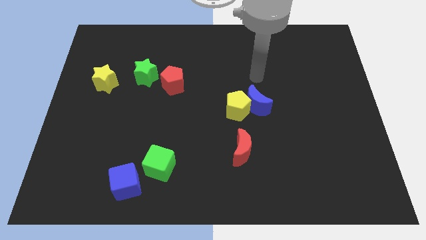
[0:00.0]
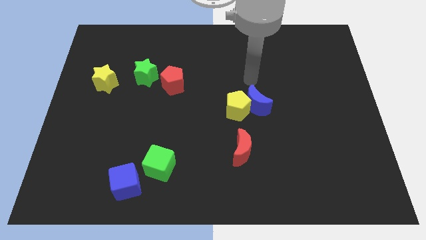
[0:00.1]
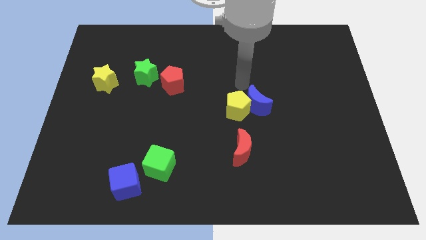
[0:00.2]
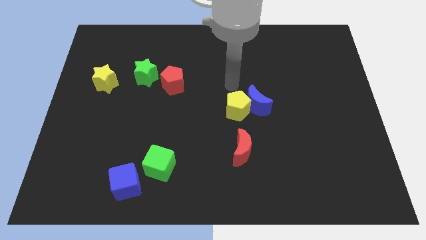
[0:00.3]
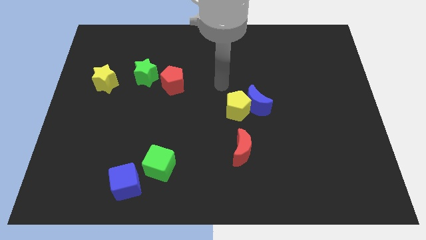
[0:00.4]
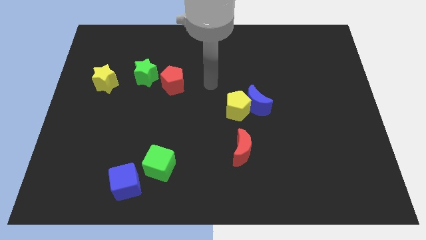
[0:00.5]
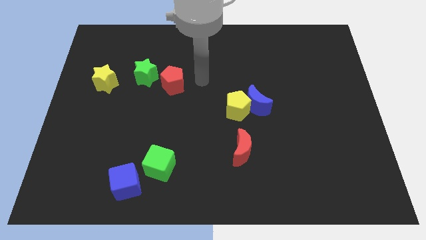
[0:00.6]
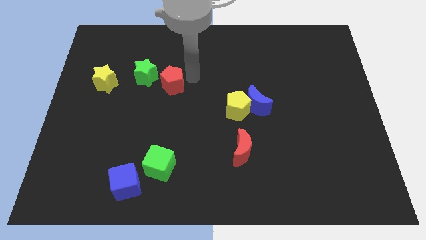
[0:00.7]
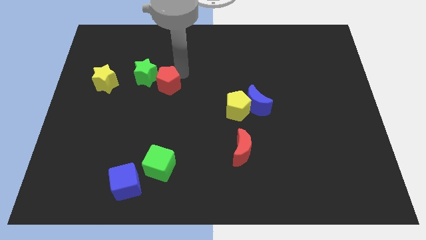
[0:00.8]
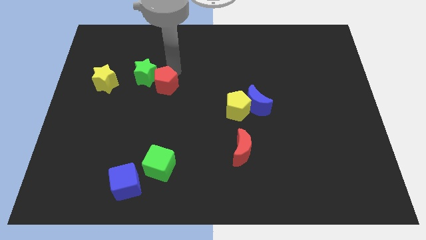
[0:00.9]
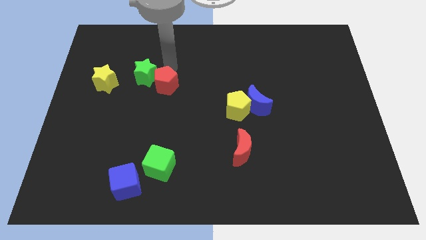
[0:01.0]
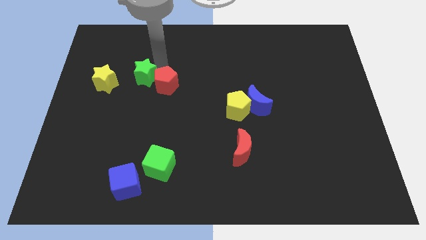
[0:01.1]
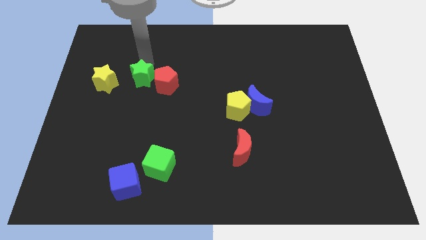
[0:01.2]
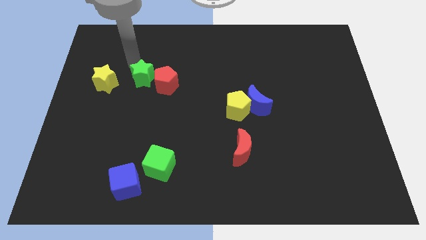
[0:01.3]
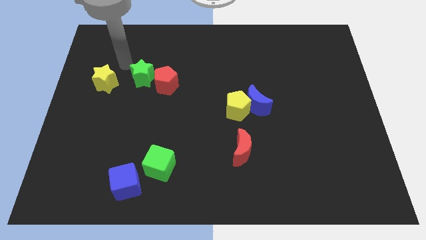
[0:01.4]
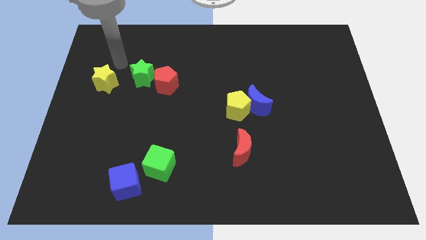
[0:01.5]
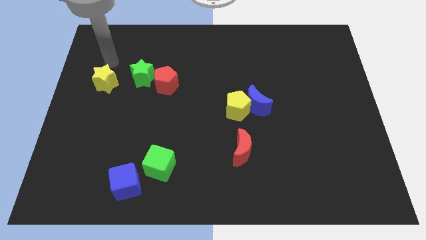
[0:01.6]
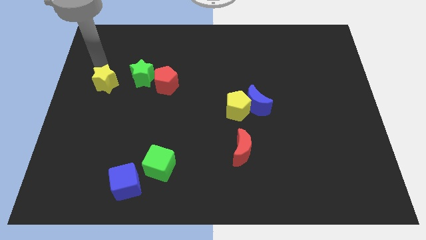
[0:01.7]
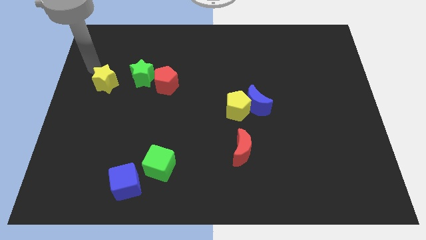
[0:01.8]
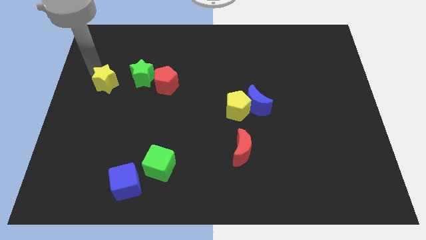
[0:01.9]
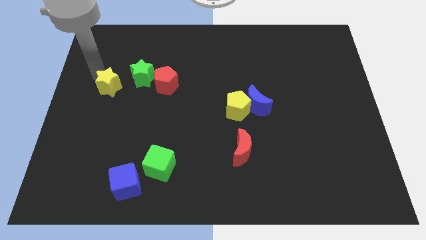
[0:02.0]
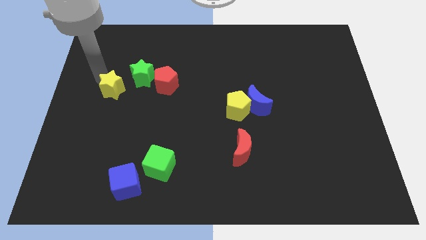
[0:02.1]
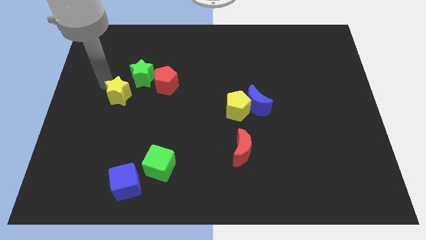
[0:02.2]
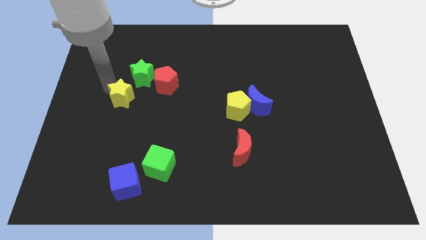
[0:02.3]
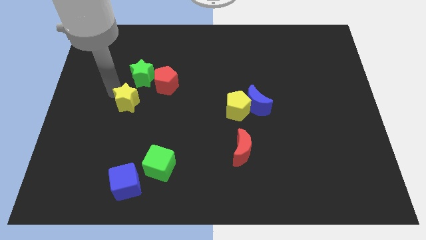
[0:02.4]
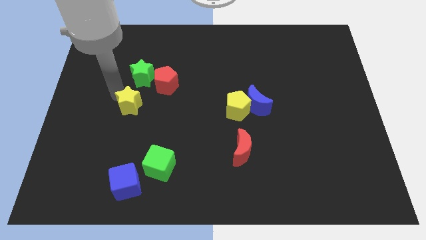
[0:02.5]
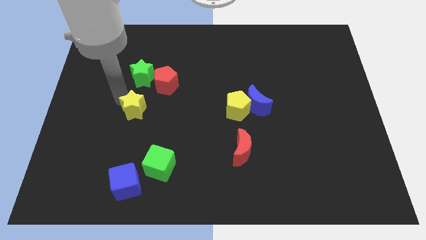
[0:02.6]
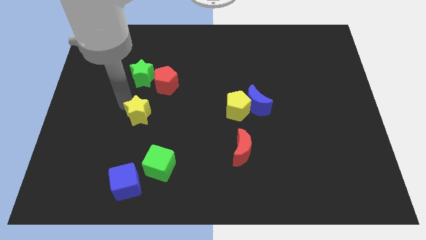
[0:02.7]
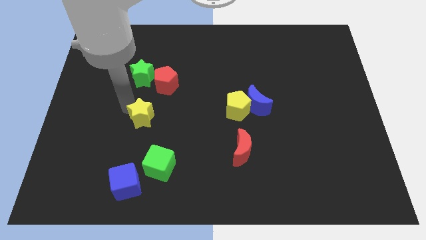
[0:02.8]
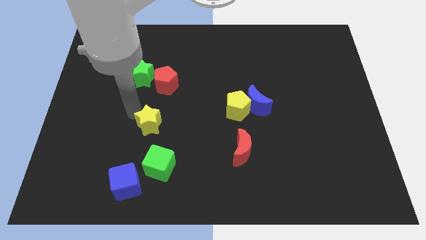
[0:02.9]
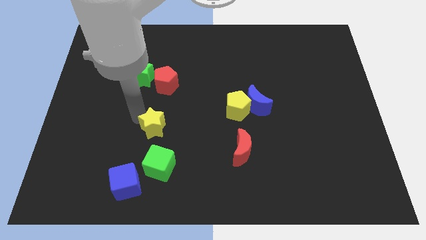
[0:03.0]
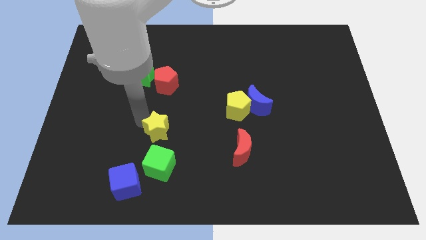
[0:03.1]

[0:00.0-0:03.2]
push the yellow star down and right

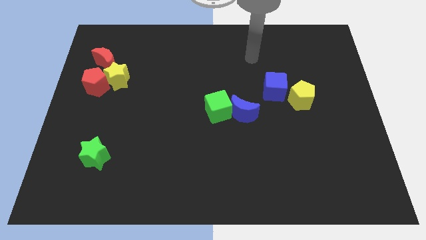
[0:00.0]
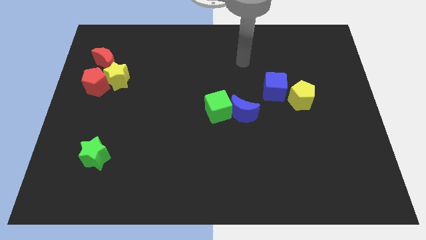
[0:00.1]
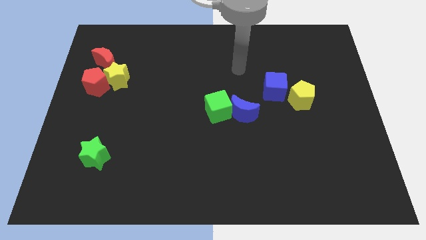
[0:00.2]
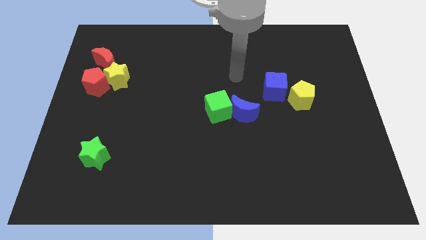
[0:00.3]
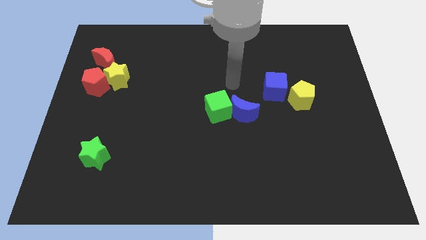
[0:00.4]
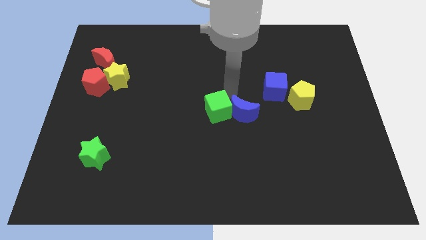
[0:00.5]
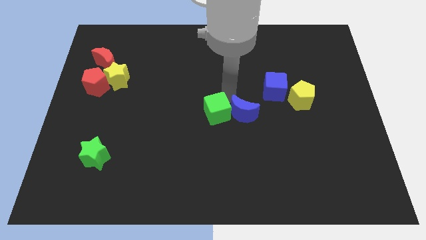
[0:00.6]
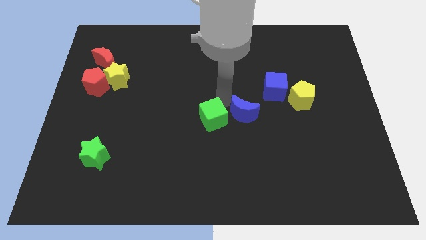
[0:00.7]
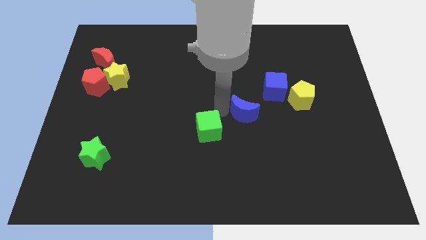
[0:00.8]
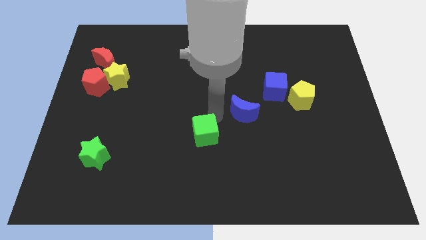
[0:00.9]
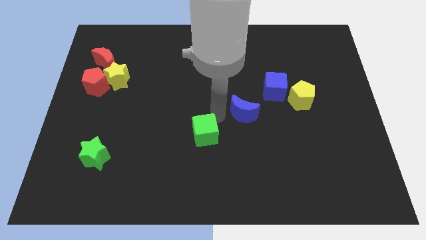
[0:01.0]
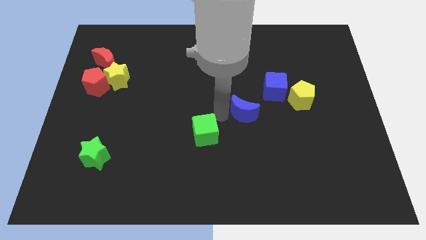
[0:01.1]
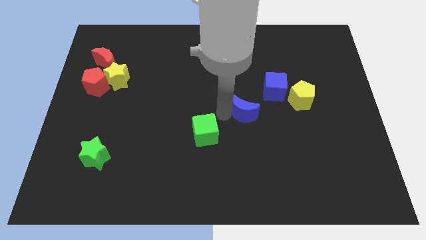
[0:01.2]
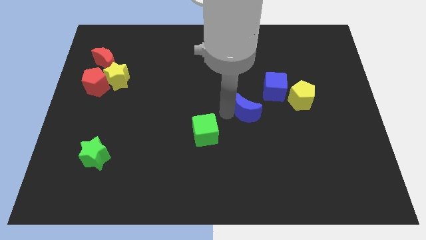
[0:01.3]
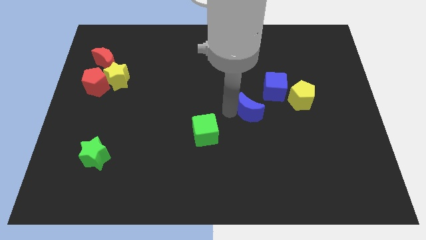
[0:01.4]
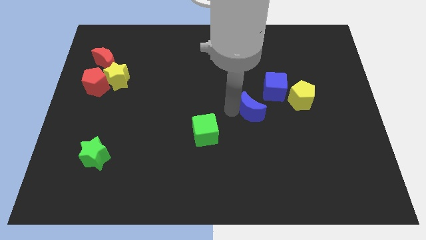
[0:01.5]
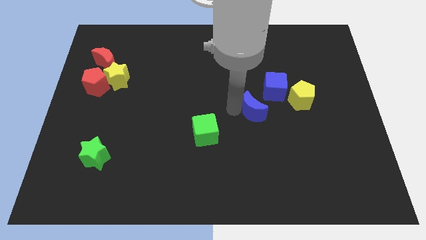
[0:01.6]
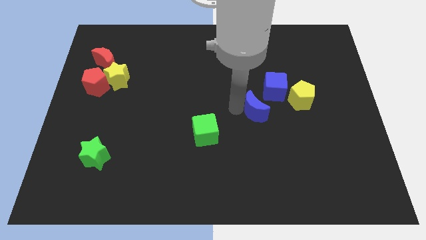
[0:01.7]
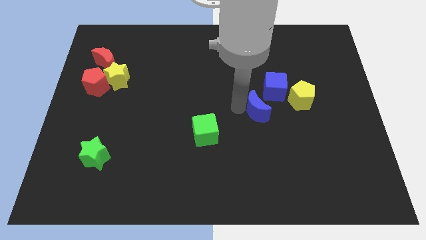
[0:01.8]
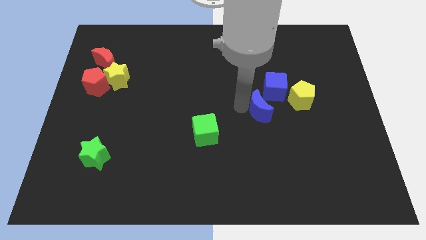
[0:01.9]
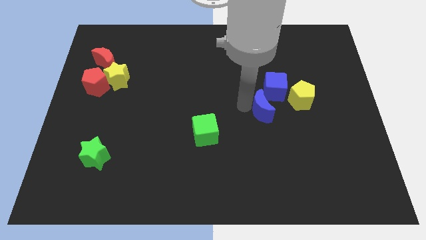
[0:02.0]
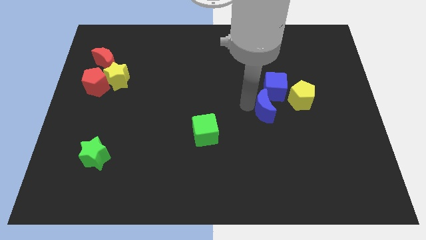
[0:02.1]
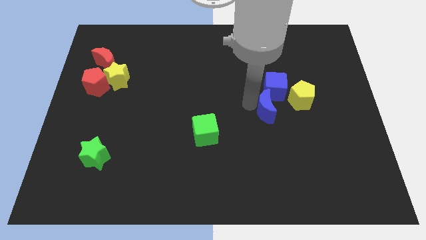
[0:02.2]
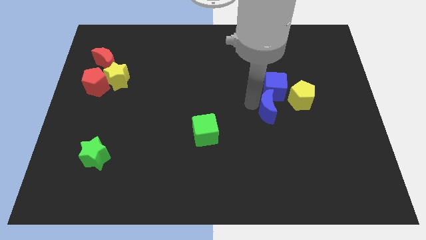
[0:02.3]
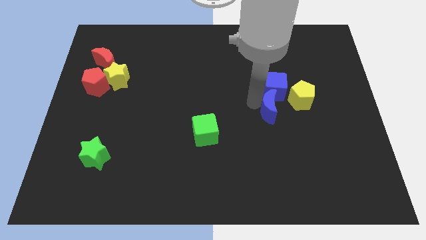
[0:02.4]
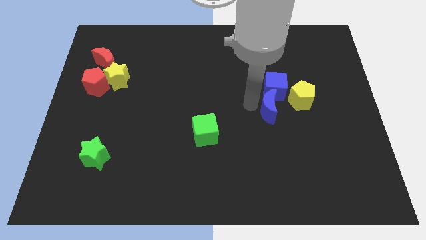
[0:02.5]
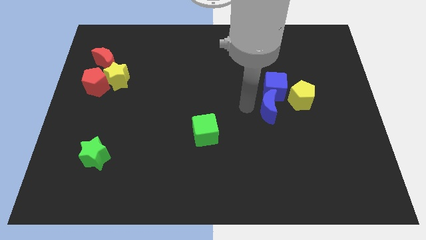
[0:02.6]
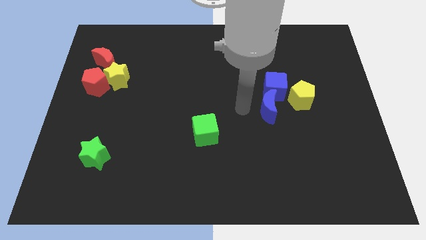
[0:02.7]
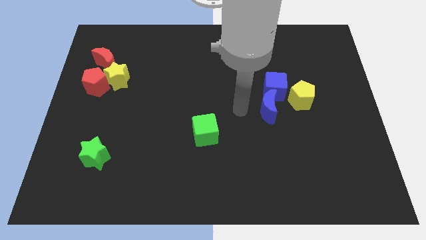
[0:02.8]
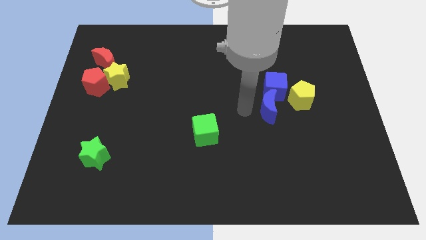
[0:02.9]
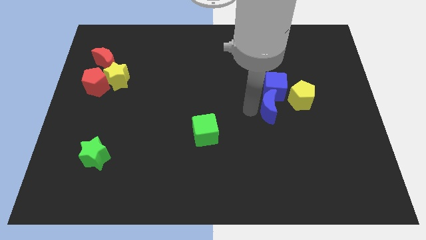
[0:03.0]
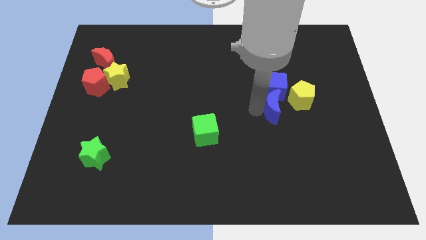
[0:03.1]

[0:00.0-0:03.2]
slightly push the blue moon right

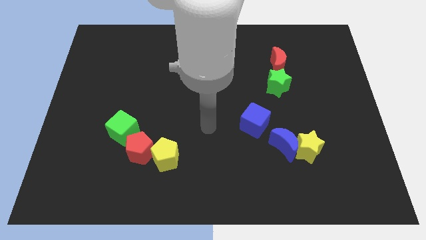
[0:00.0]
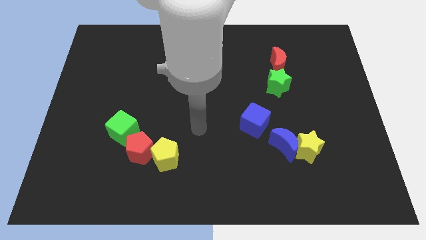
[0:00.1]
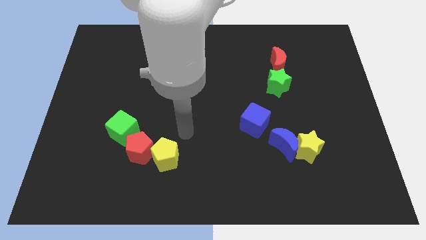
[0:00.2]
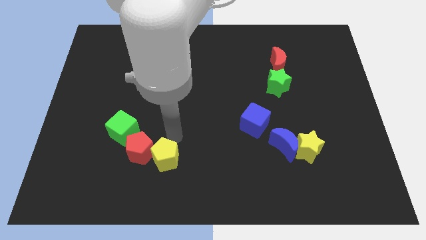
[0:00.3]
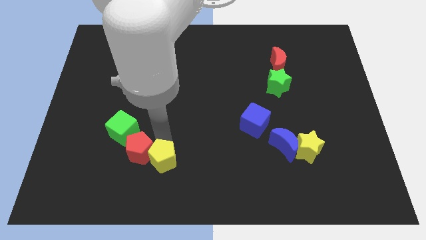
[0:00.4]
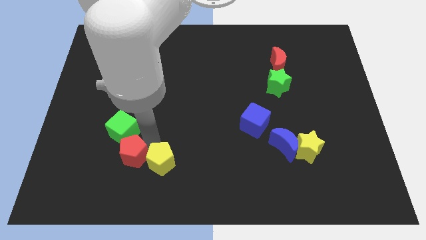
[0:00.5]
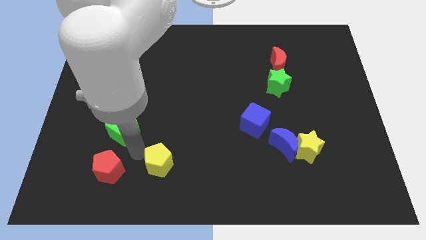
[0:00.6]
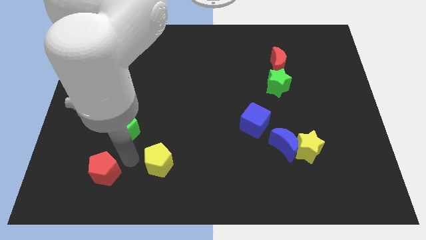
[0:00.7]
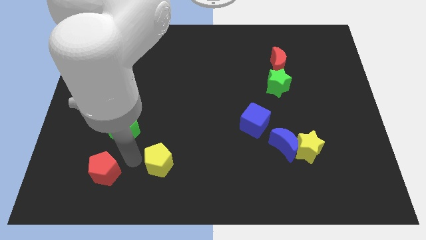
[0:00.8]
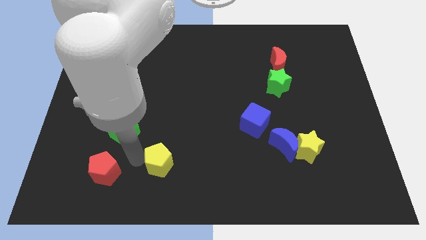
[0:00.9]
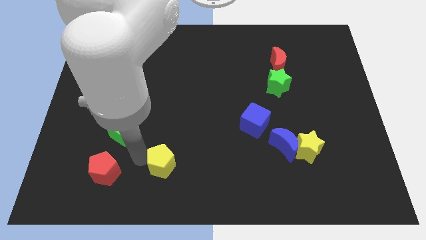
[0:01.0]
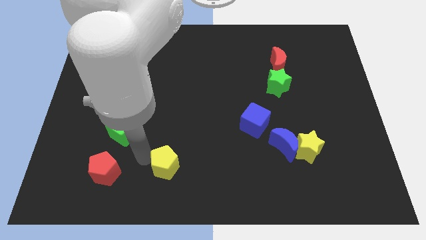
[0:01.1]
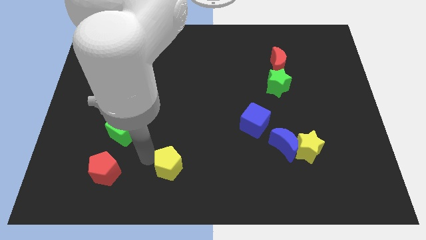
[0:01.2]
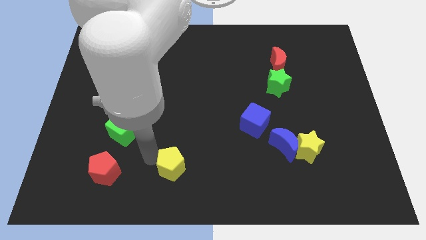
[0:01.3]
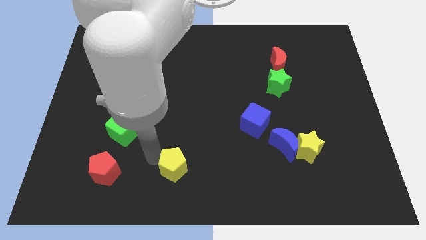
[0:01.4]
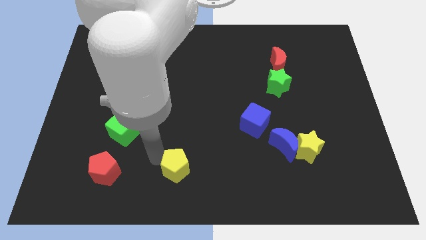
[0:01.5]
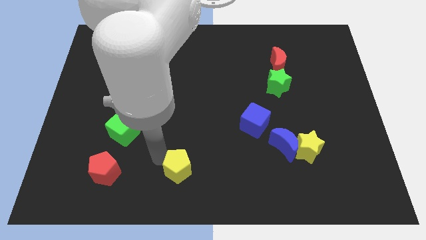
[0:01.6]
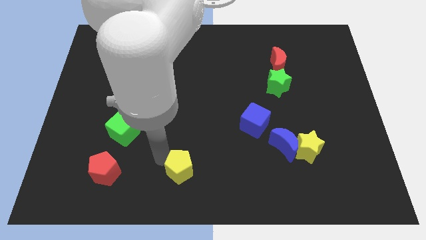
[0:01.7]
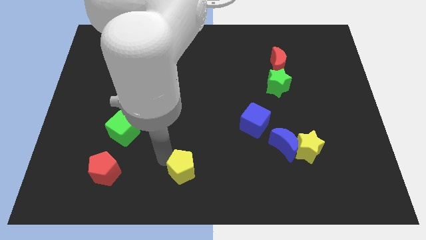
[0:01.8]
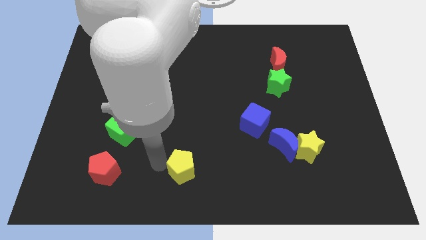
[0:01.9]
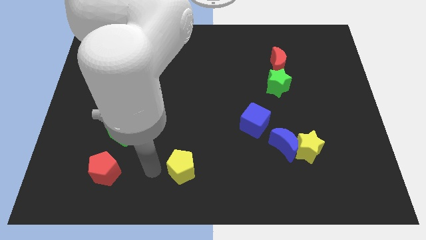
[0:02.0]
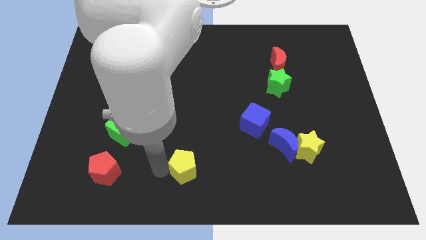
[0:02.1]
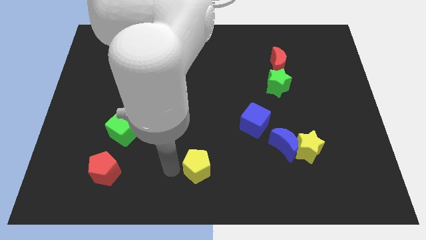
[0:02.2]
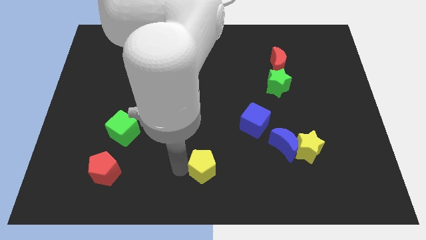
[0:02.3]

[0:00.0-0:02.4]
push the yellow pentagon right a little bit
